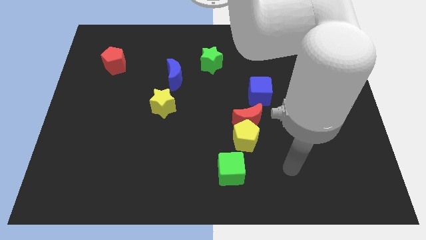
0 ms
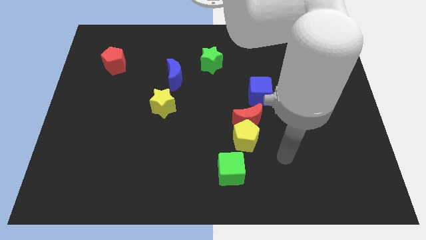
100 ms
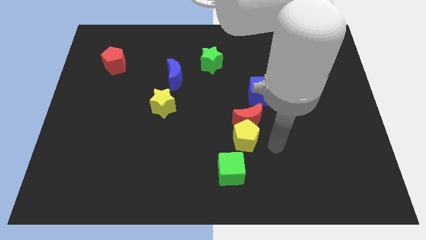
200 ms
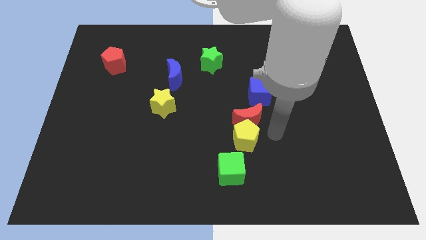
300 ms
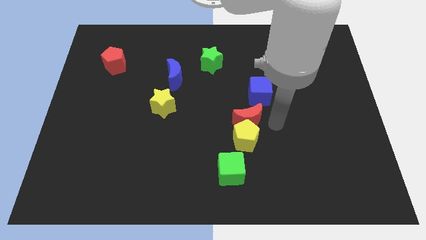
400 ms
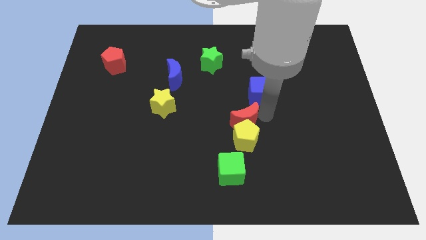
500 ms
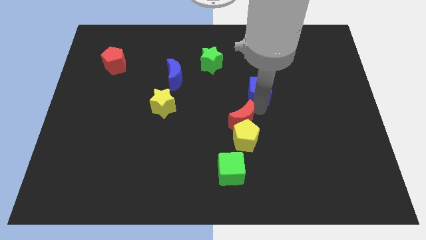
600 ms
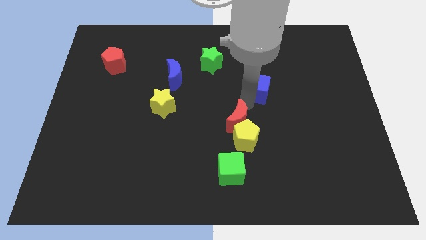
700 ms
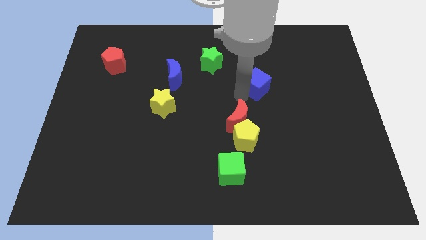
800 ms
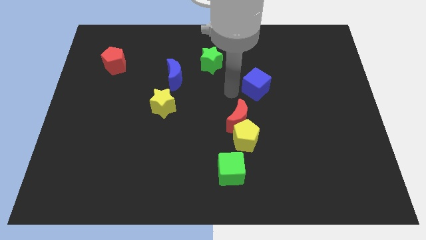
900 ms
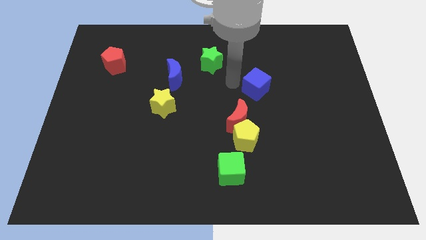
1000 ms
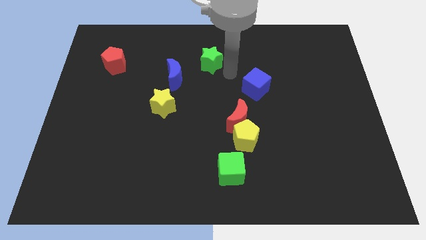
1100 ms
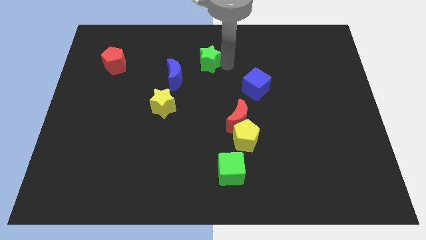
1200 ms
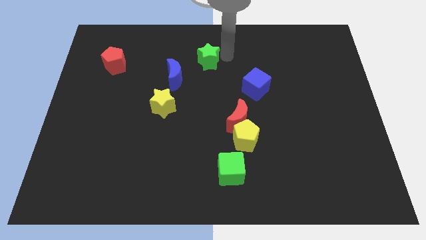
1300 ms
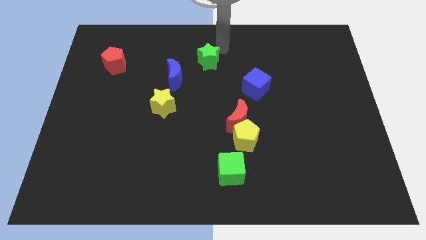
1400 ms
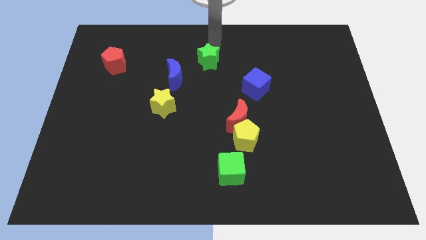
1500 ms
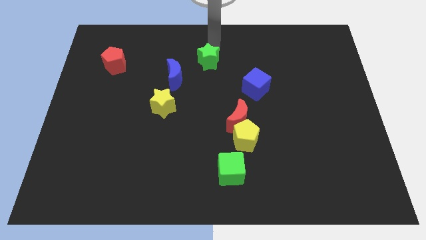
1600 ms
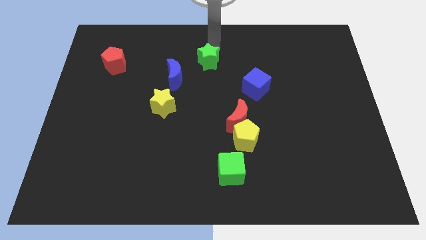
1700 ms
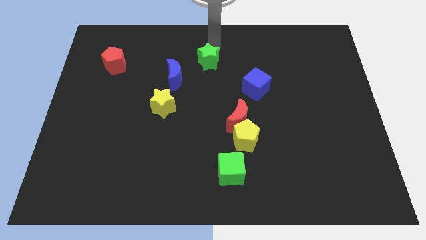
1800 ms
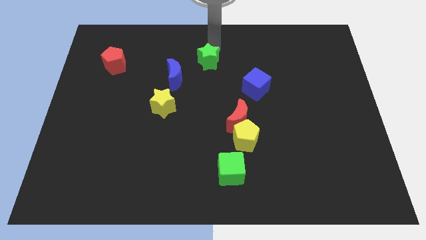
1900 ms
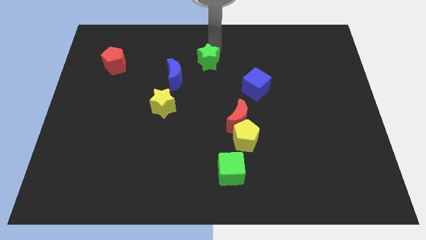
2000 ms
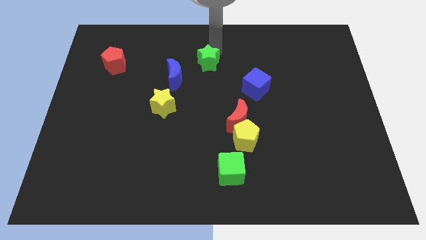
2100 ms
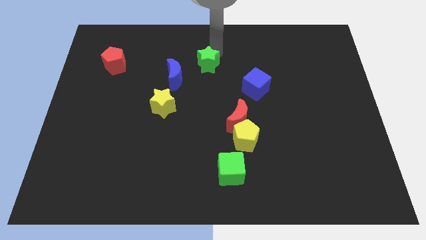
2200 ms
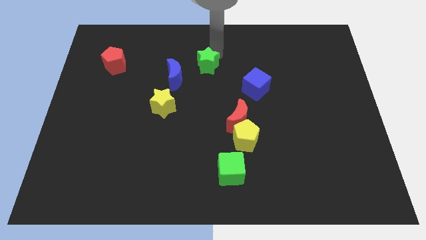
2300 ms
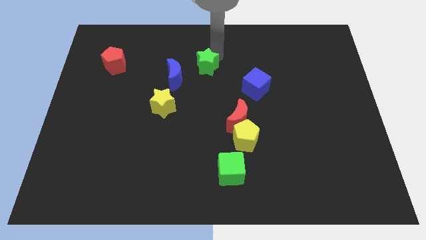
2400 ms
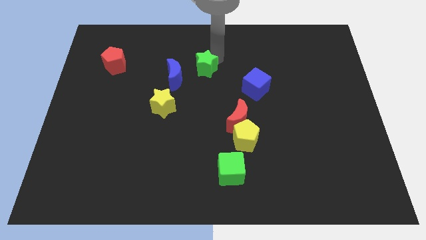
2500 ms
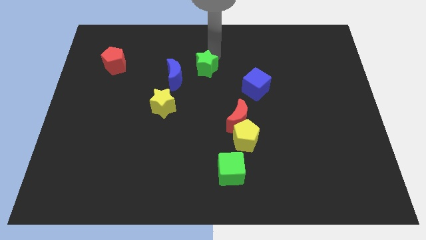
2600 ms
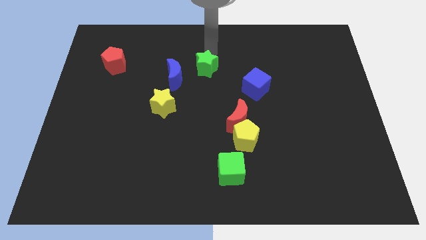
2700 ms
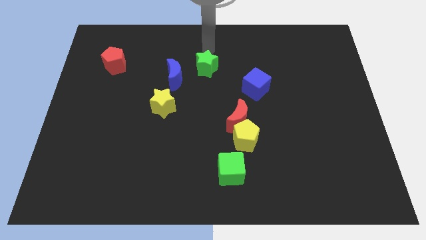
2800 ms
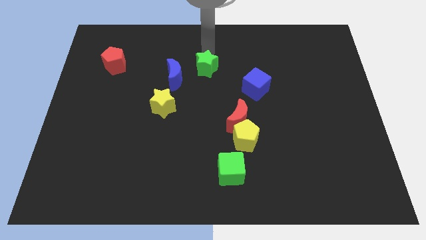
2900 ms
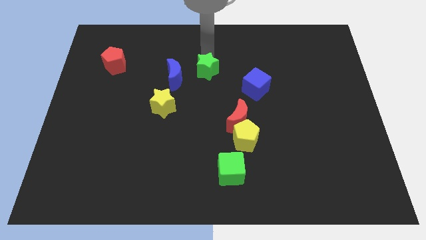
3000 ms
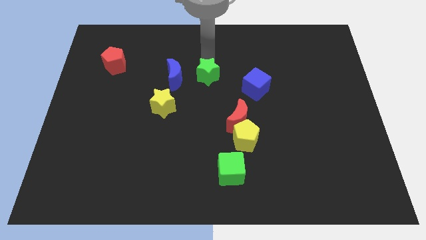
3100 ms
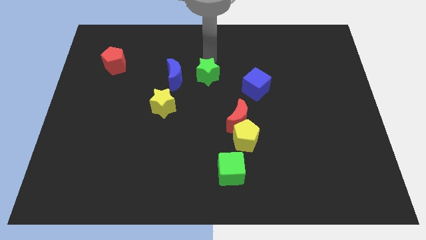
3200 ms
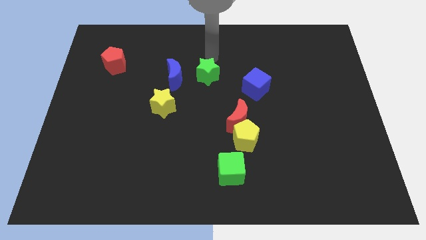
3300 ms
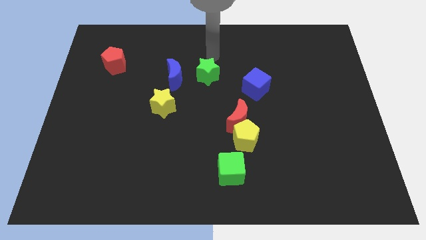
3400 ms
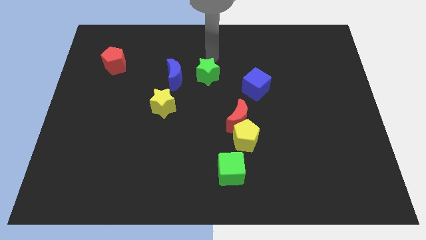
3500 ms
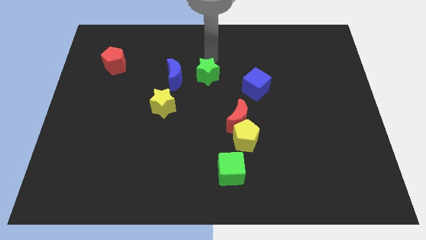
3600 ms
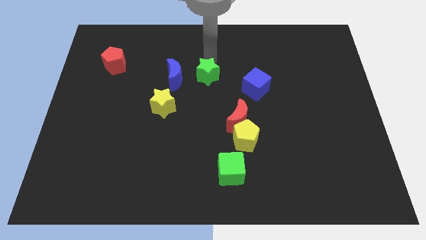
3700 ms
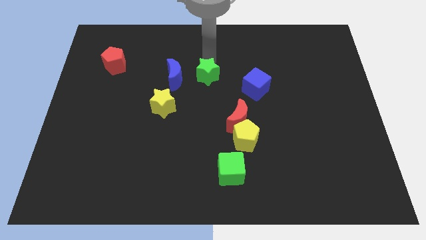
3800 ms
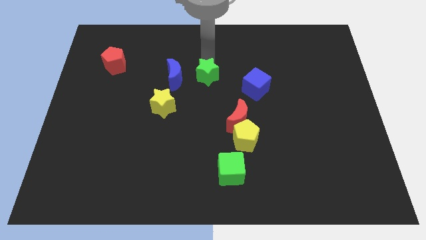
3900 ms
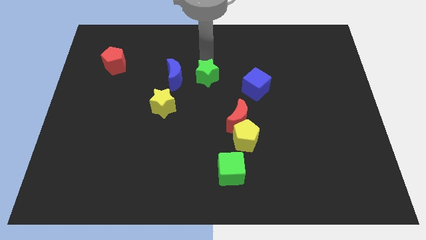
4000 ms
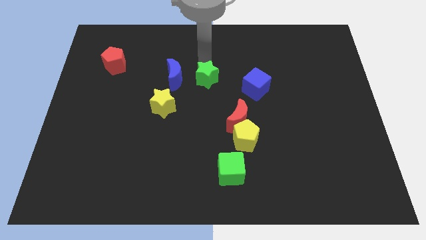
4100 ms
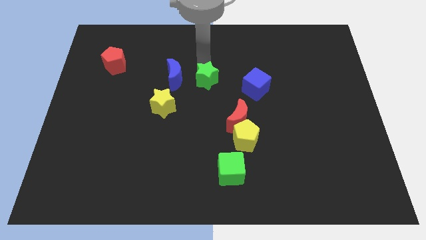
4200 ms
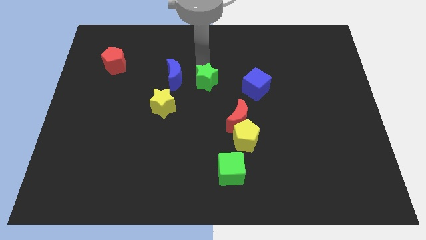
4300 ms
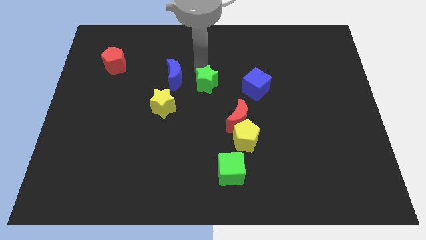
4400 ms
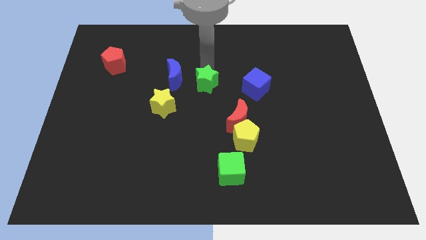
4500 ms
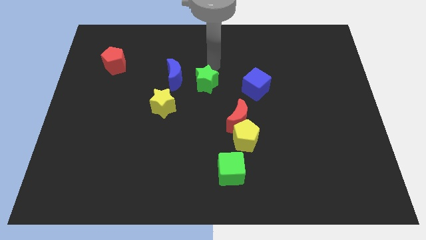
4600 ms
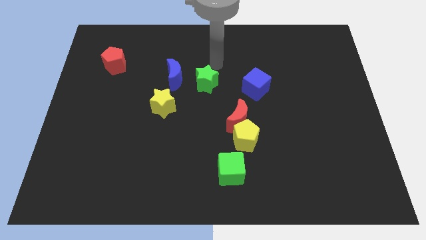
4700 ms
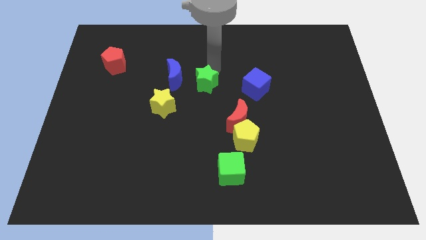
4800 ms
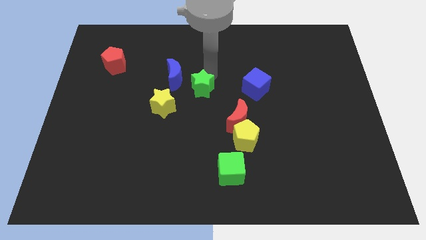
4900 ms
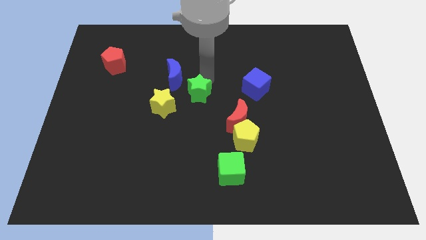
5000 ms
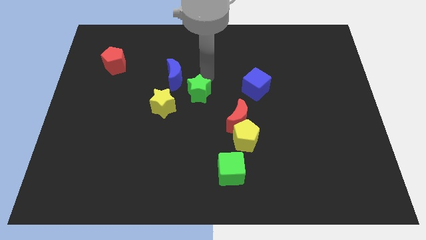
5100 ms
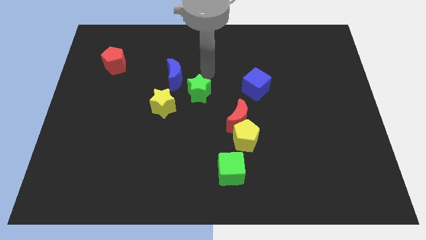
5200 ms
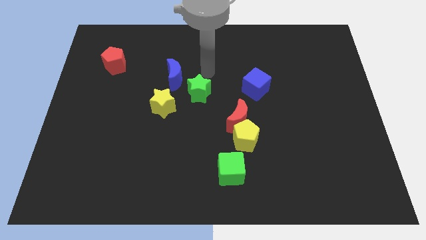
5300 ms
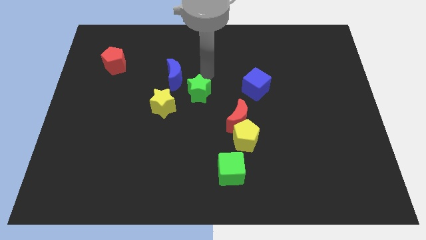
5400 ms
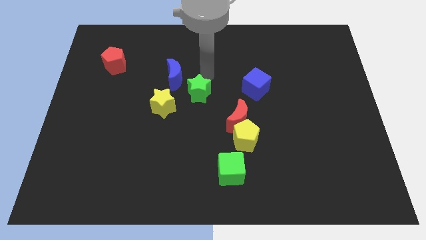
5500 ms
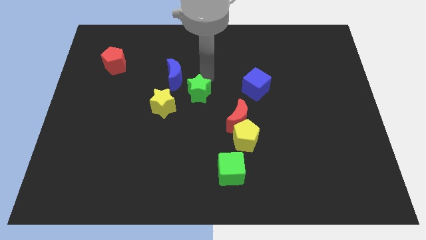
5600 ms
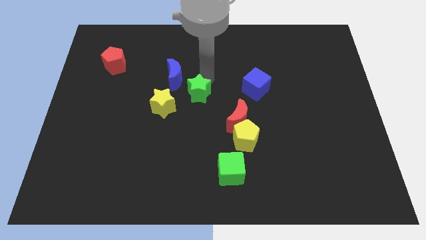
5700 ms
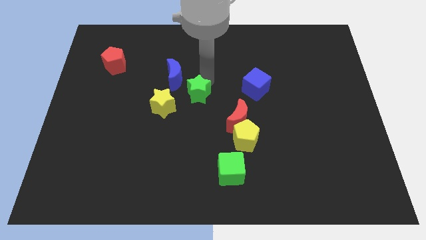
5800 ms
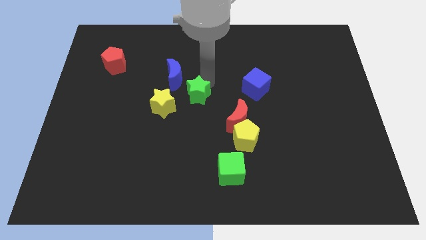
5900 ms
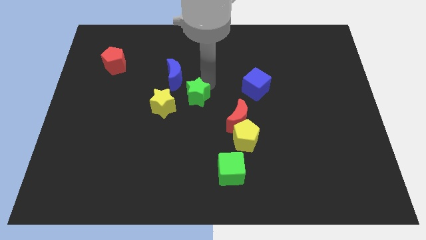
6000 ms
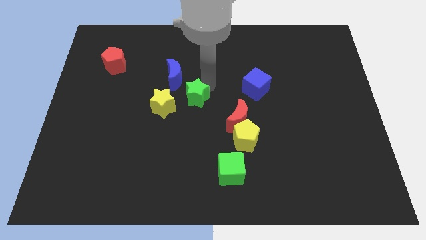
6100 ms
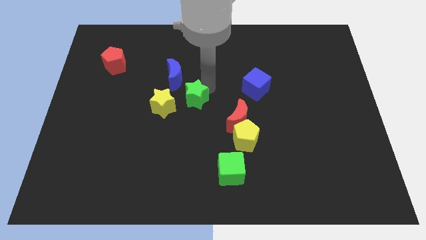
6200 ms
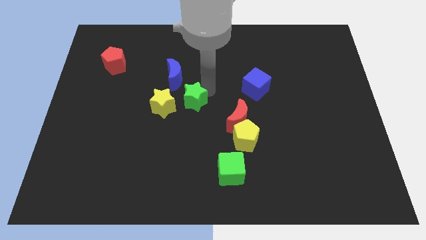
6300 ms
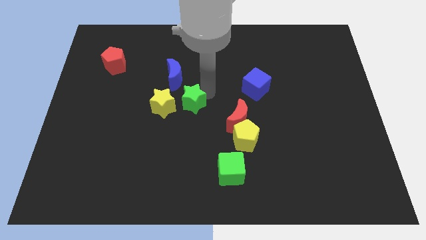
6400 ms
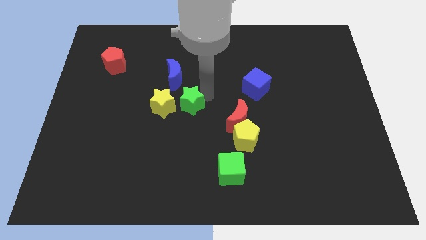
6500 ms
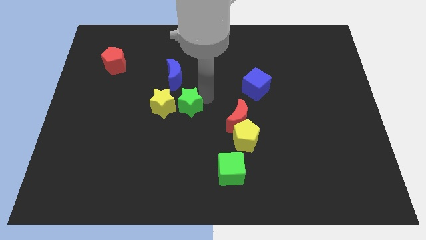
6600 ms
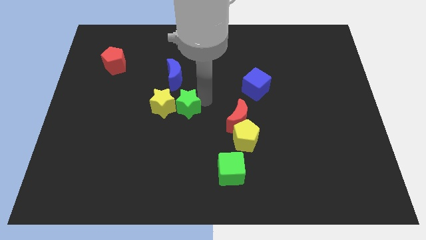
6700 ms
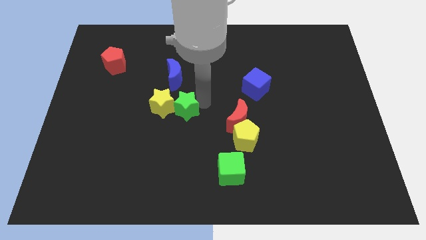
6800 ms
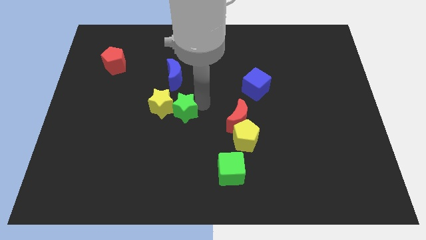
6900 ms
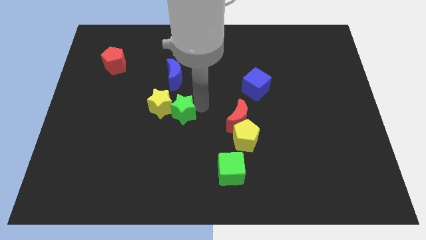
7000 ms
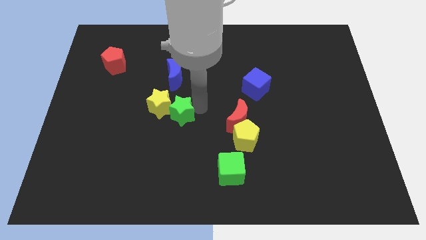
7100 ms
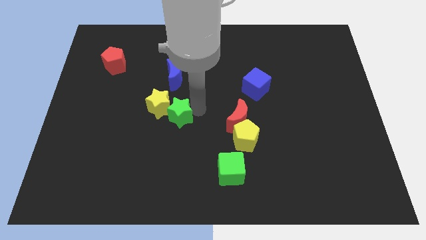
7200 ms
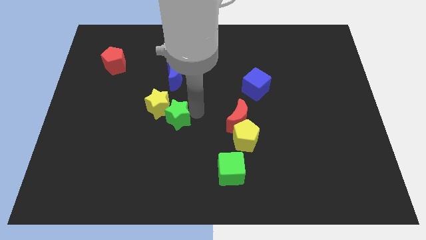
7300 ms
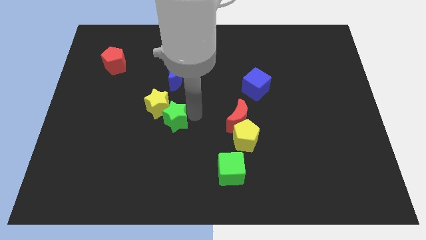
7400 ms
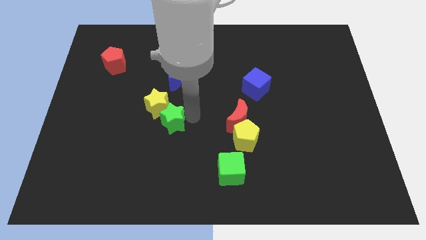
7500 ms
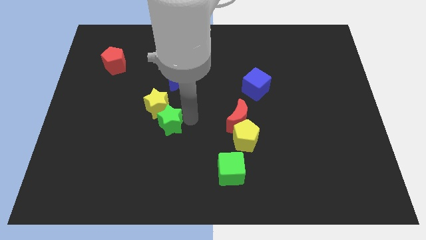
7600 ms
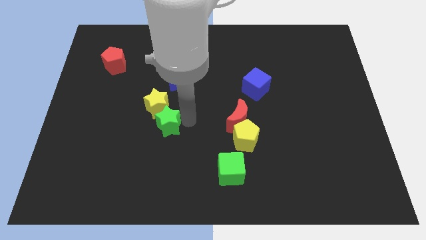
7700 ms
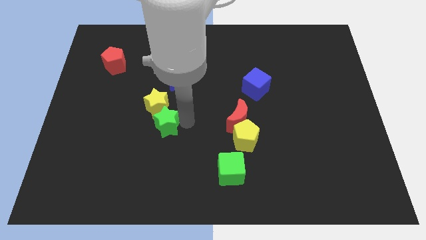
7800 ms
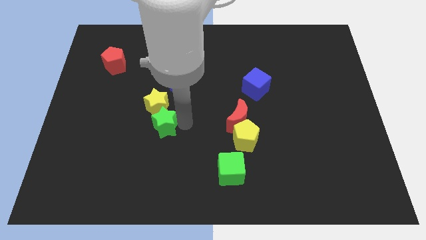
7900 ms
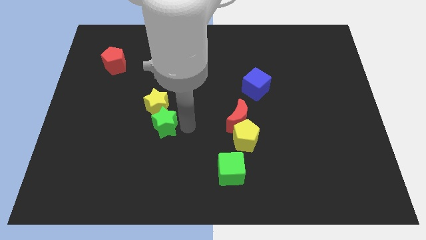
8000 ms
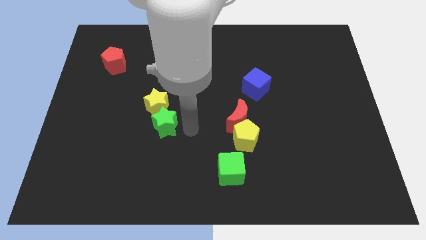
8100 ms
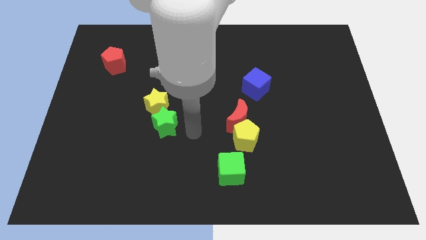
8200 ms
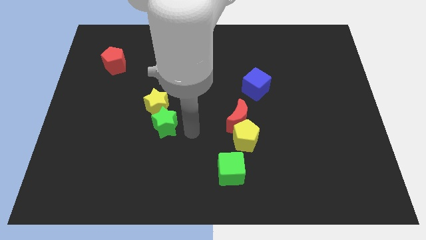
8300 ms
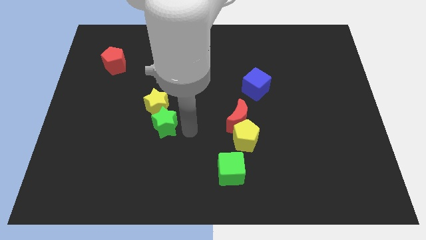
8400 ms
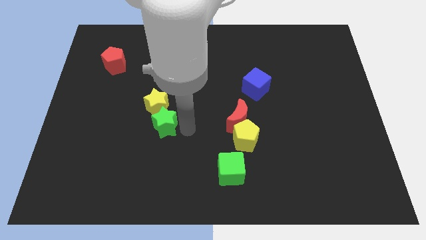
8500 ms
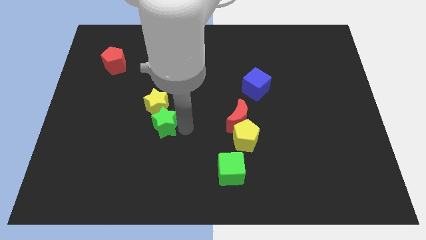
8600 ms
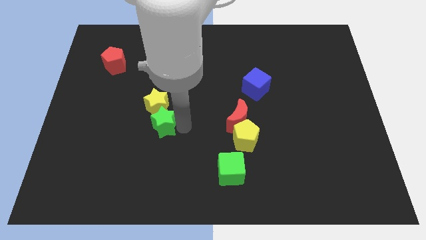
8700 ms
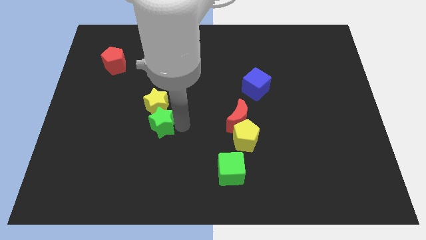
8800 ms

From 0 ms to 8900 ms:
move the green star down and to the left diagonally
